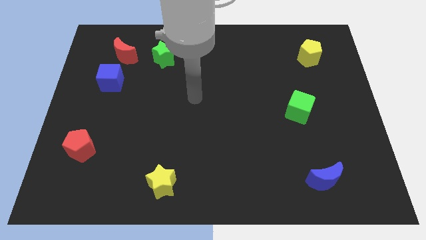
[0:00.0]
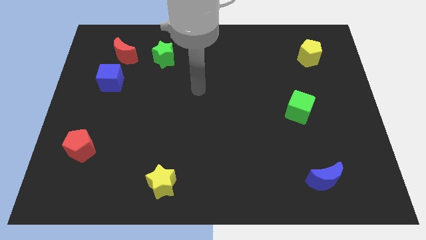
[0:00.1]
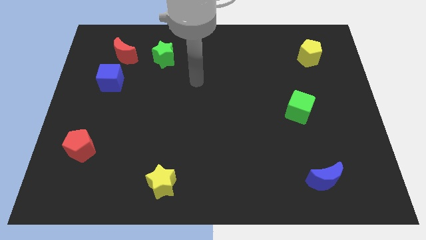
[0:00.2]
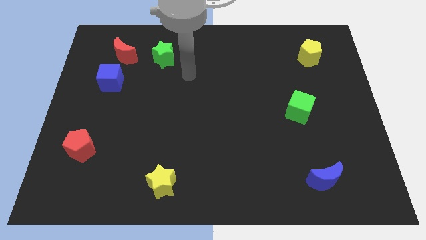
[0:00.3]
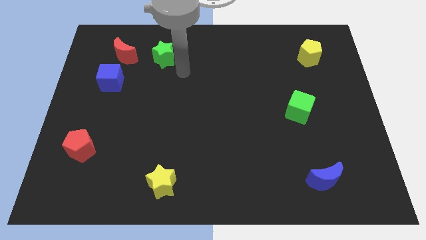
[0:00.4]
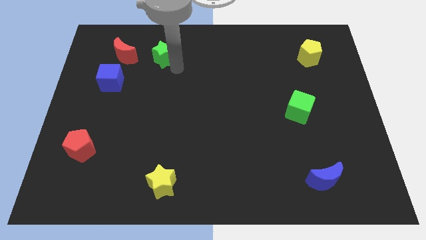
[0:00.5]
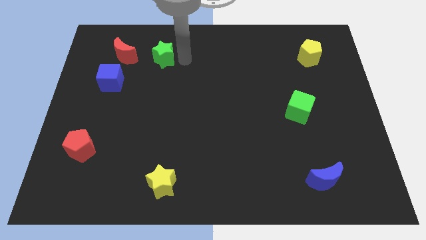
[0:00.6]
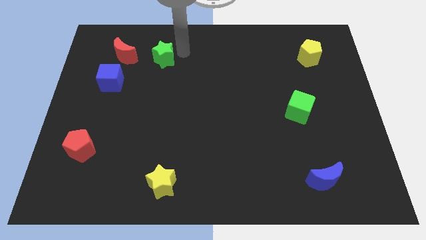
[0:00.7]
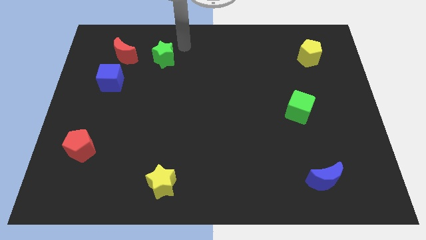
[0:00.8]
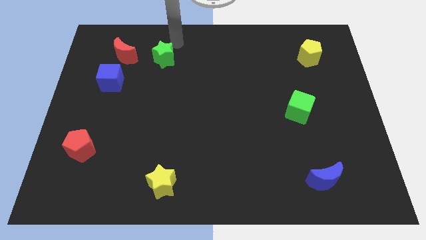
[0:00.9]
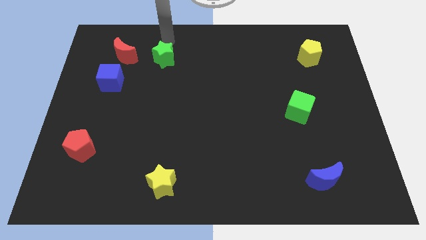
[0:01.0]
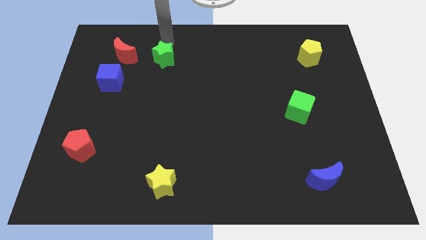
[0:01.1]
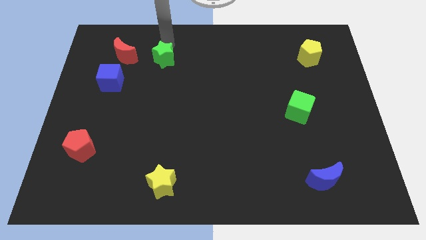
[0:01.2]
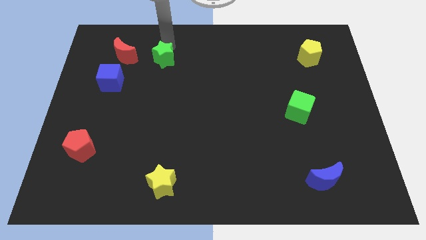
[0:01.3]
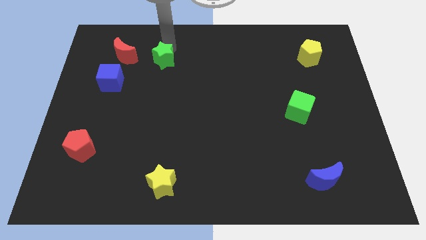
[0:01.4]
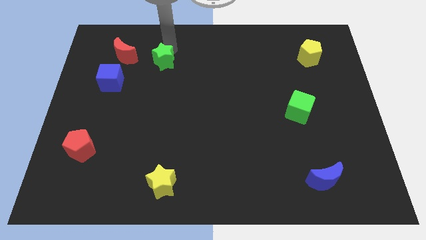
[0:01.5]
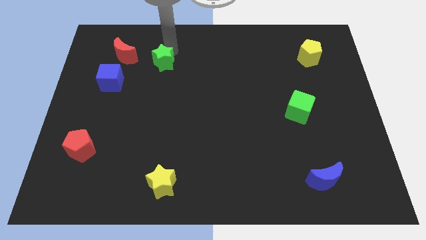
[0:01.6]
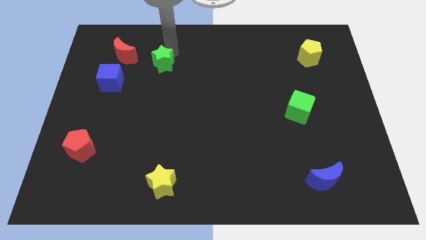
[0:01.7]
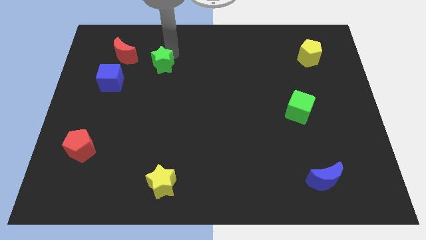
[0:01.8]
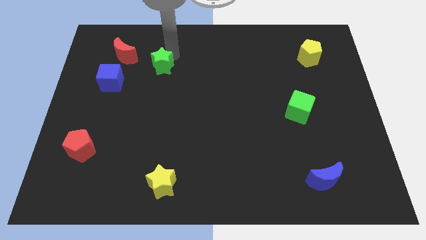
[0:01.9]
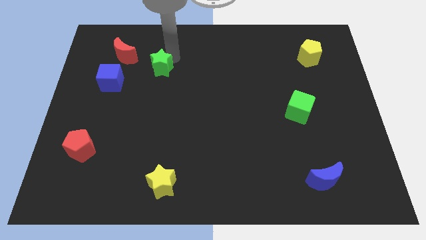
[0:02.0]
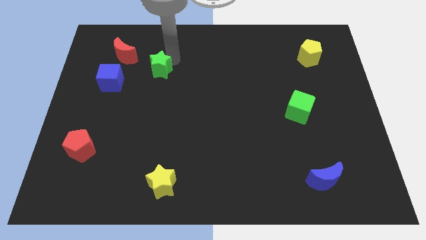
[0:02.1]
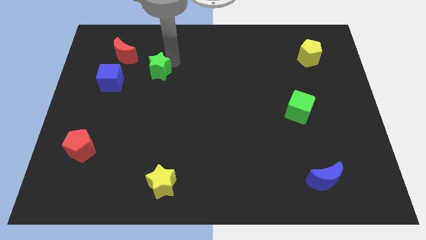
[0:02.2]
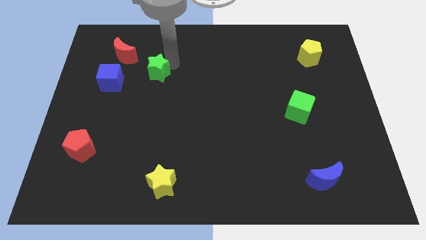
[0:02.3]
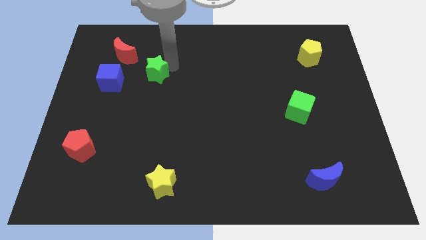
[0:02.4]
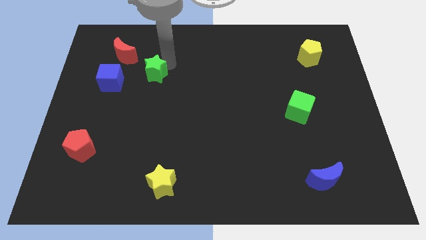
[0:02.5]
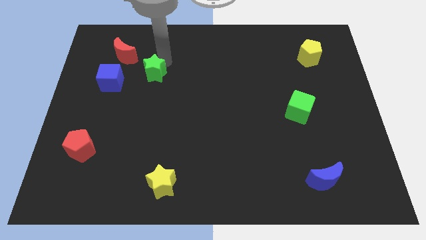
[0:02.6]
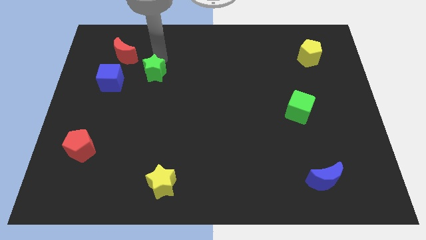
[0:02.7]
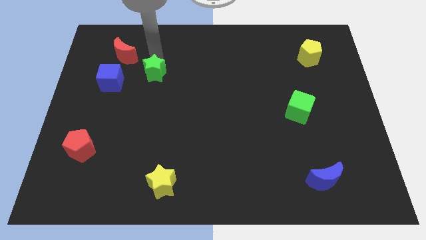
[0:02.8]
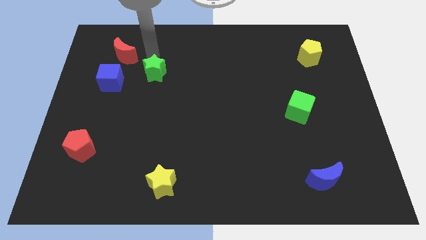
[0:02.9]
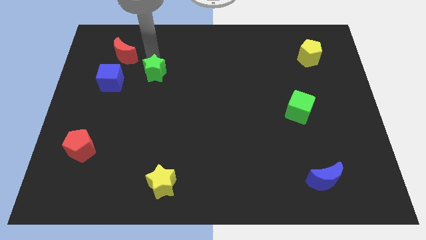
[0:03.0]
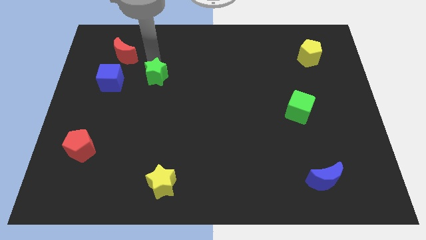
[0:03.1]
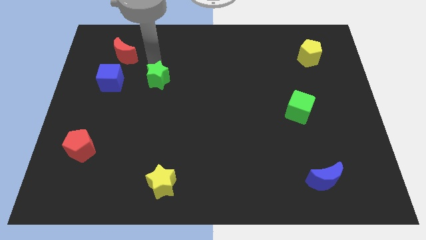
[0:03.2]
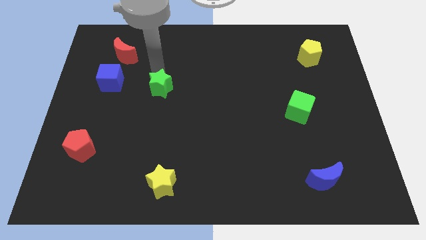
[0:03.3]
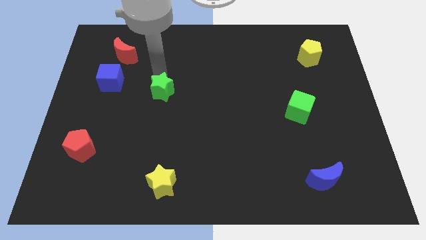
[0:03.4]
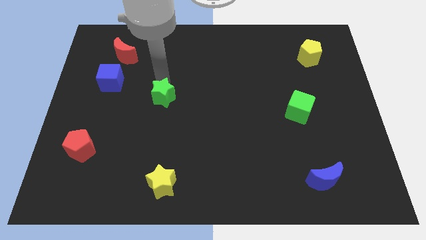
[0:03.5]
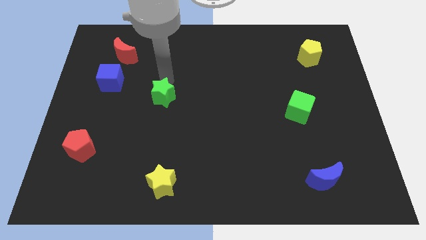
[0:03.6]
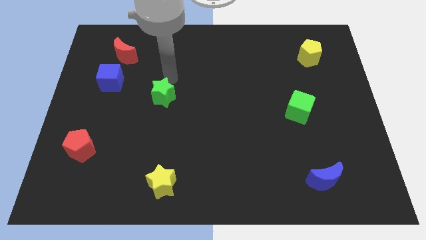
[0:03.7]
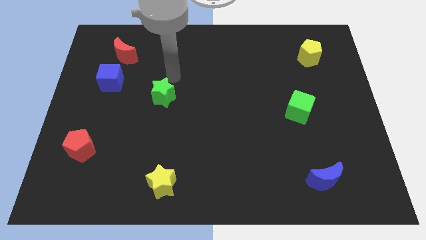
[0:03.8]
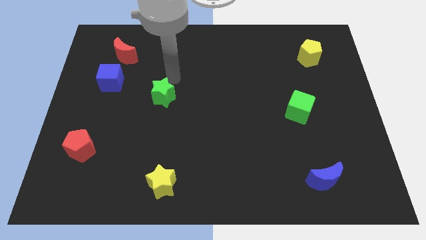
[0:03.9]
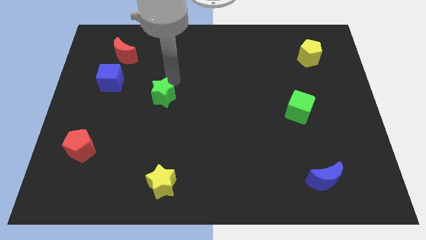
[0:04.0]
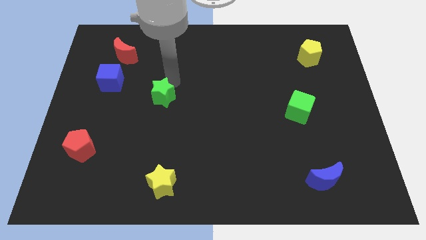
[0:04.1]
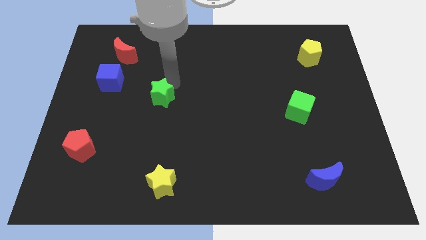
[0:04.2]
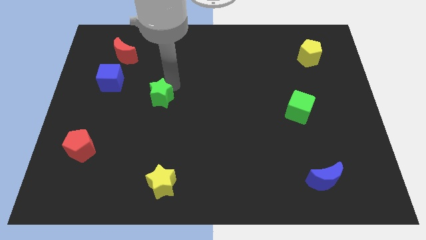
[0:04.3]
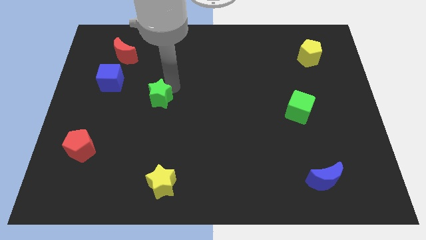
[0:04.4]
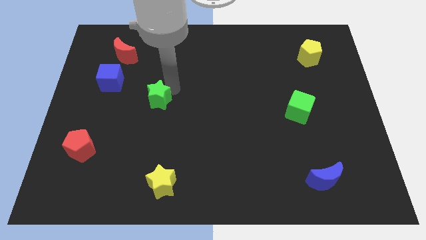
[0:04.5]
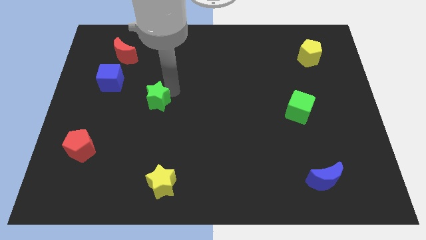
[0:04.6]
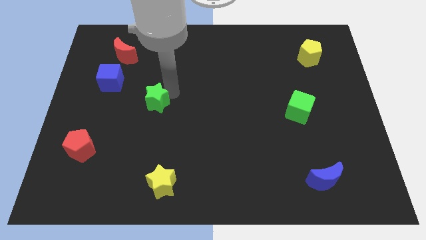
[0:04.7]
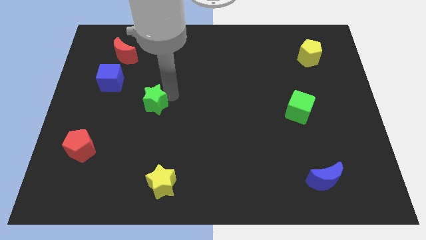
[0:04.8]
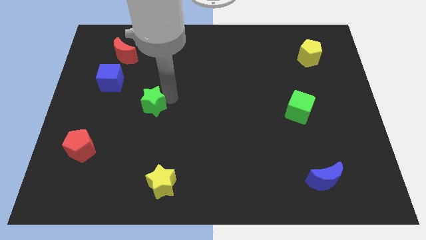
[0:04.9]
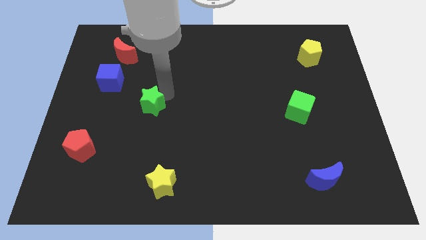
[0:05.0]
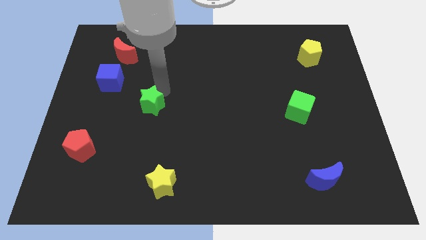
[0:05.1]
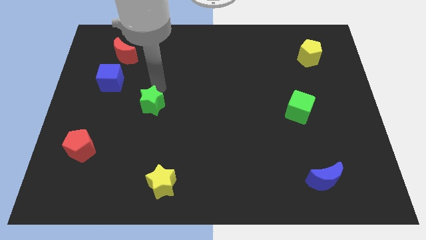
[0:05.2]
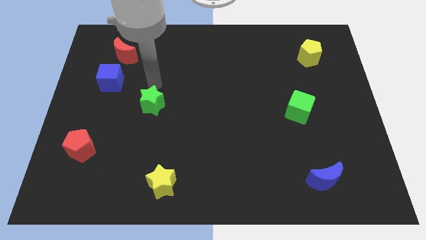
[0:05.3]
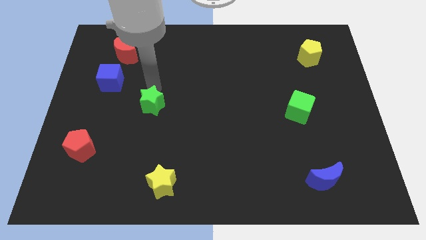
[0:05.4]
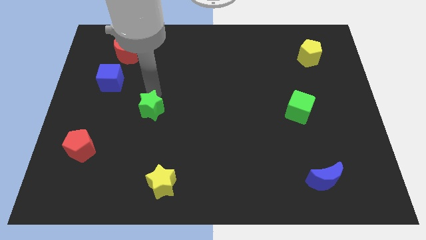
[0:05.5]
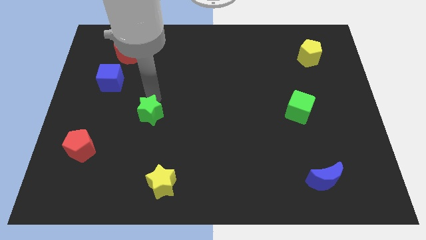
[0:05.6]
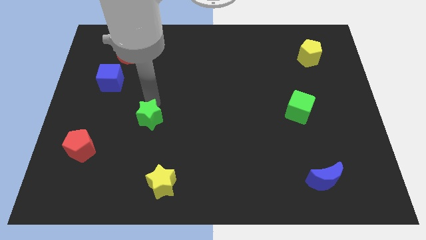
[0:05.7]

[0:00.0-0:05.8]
move the green star down

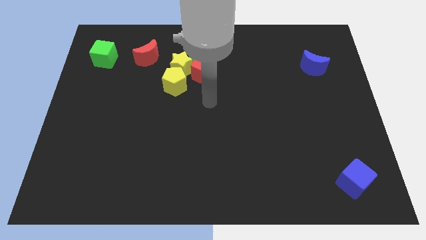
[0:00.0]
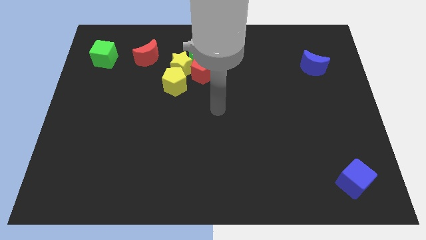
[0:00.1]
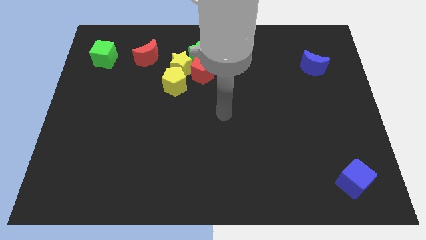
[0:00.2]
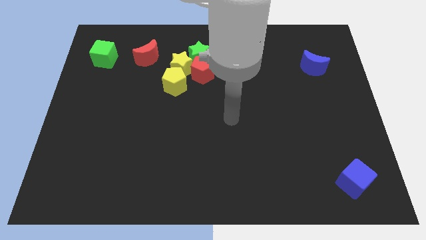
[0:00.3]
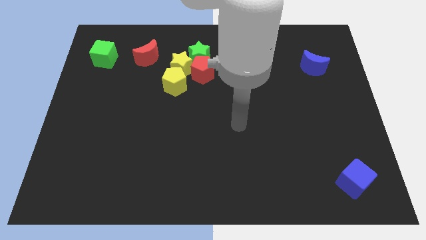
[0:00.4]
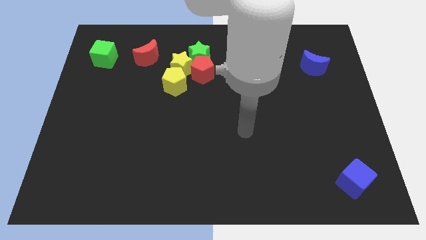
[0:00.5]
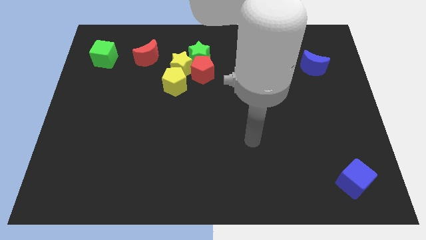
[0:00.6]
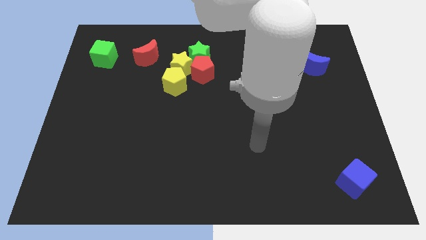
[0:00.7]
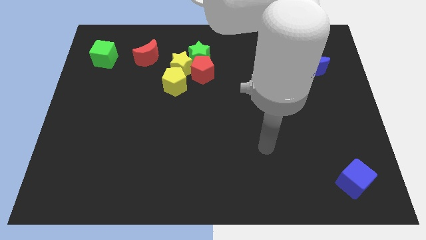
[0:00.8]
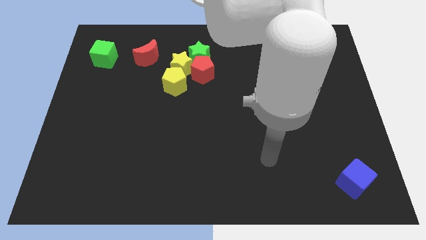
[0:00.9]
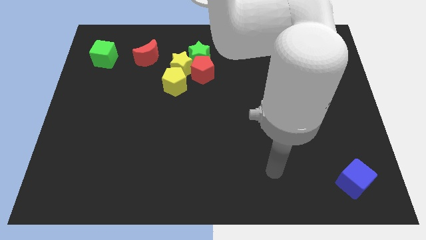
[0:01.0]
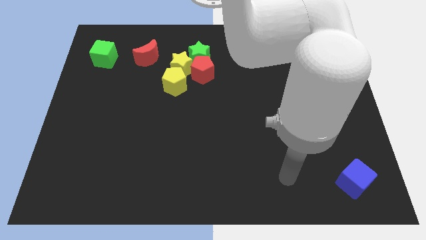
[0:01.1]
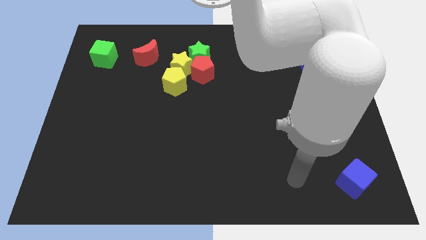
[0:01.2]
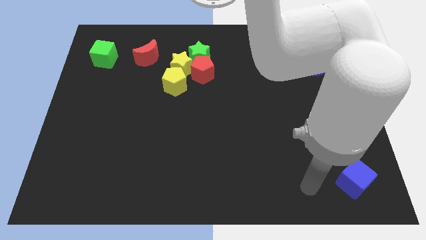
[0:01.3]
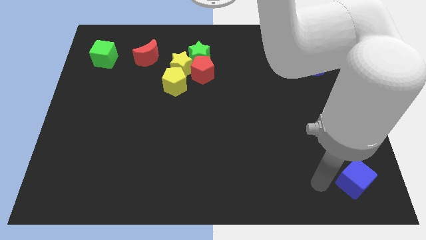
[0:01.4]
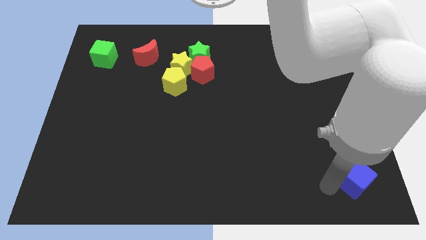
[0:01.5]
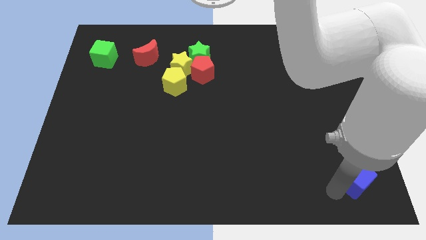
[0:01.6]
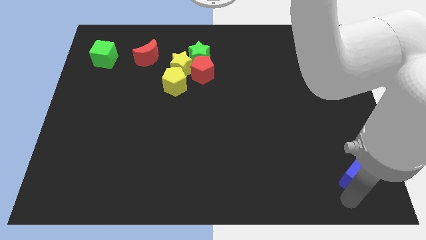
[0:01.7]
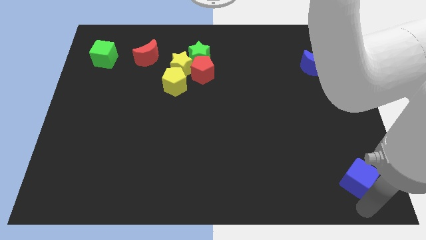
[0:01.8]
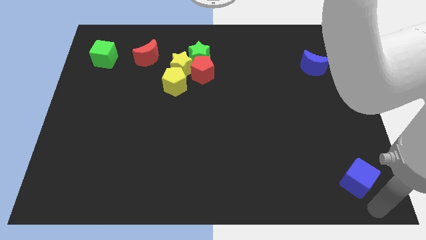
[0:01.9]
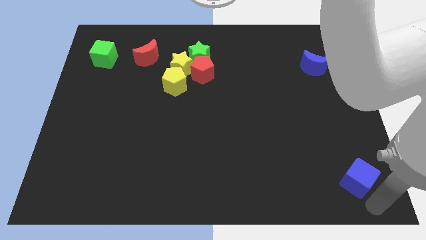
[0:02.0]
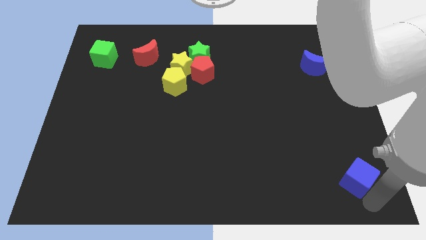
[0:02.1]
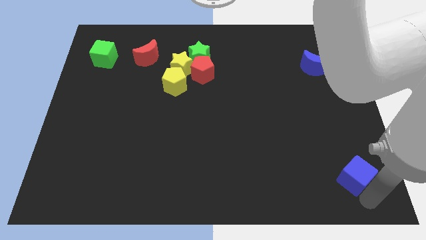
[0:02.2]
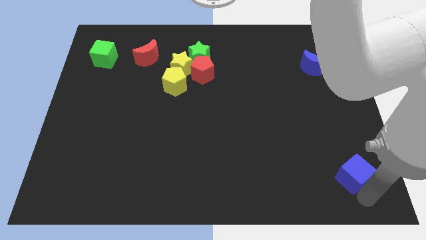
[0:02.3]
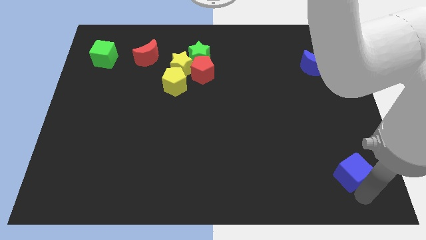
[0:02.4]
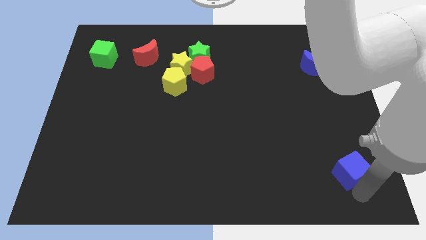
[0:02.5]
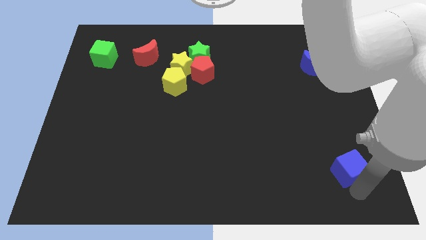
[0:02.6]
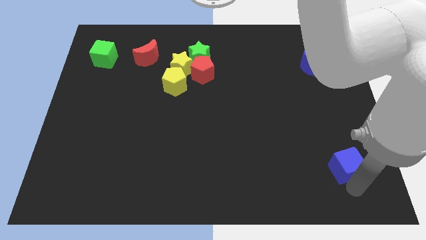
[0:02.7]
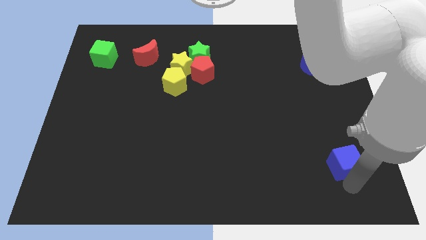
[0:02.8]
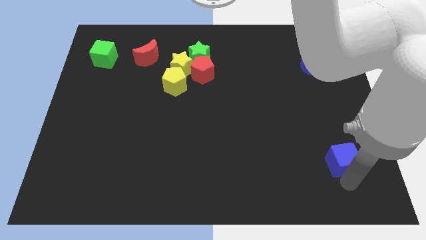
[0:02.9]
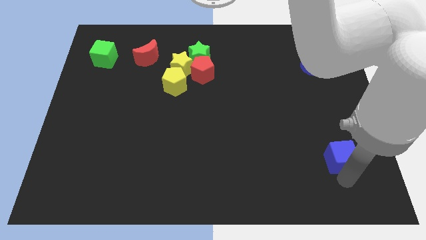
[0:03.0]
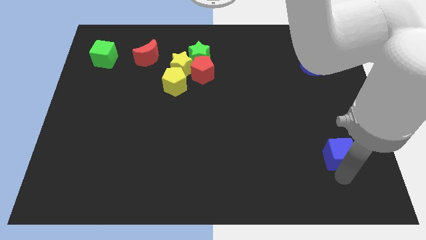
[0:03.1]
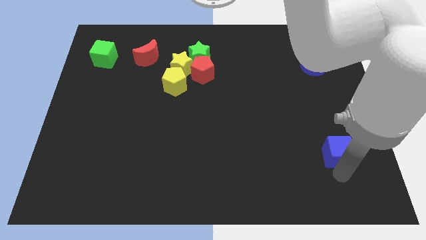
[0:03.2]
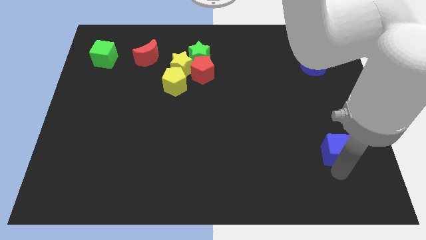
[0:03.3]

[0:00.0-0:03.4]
move the blue cube slightly upwards
